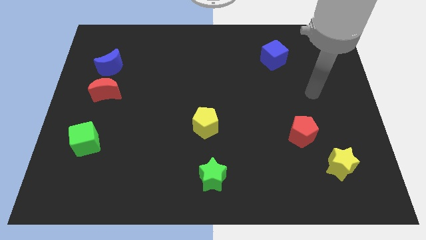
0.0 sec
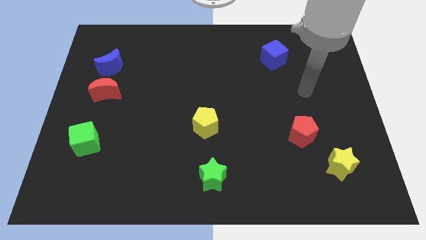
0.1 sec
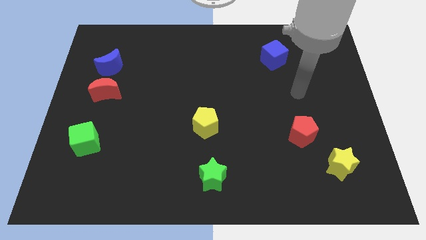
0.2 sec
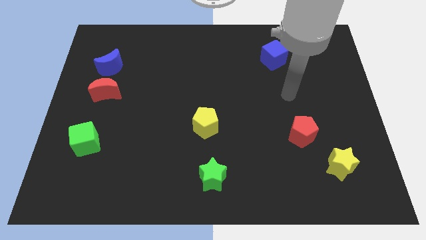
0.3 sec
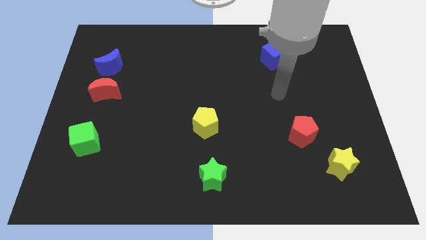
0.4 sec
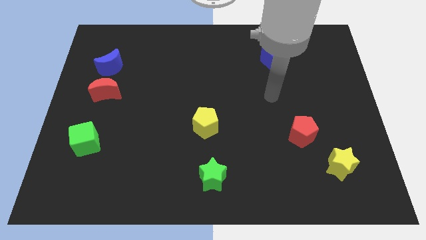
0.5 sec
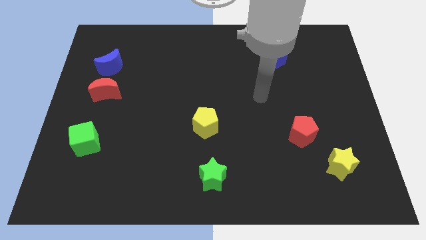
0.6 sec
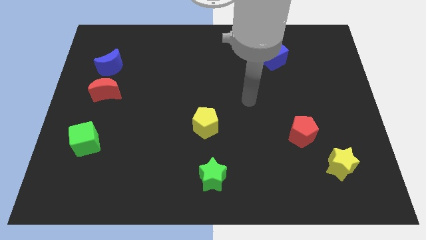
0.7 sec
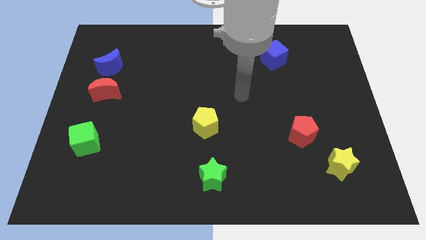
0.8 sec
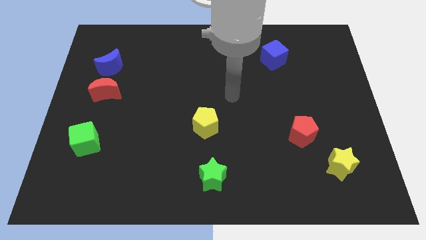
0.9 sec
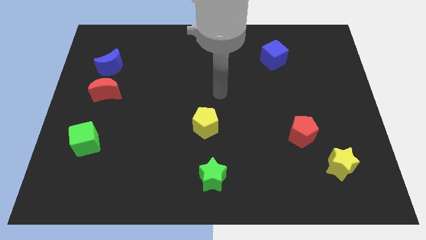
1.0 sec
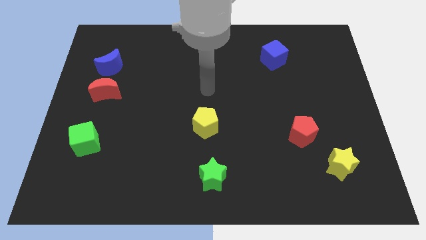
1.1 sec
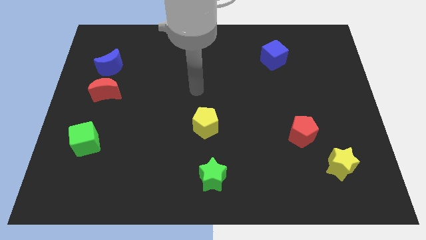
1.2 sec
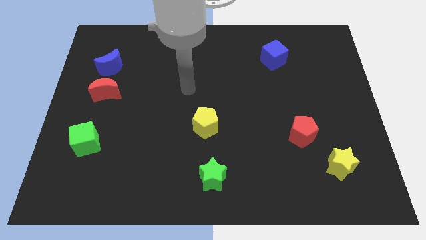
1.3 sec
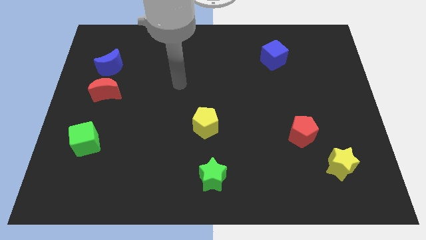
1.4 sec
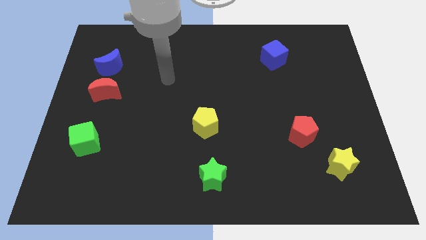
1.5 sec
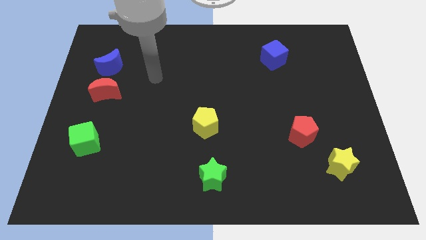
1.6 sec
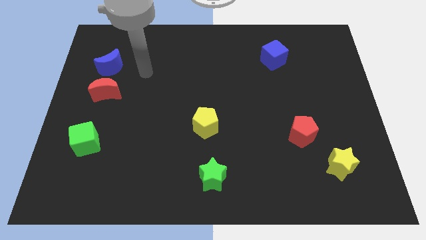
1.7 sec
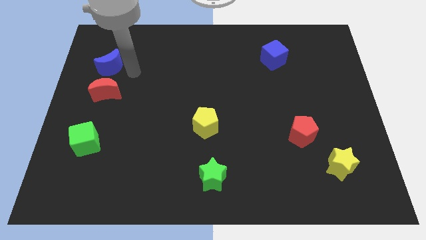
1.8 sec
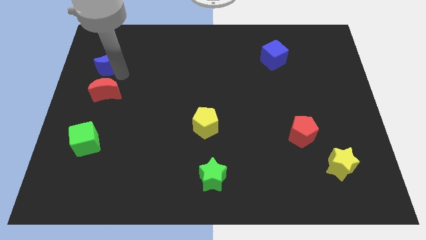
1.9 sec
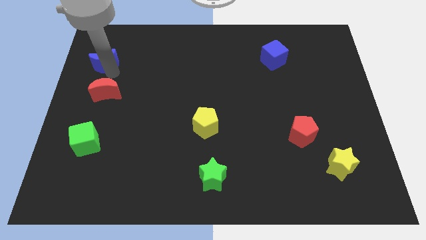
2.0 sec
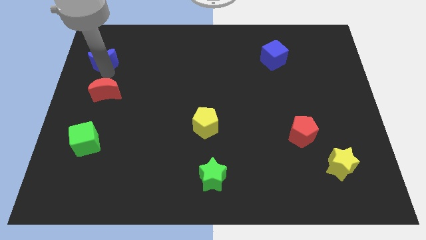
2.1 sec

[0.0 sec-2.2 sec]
move the red moon away from the blue moon

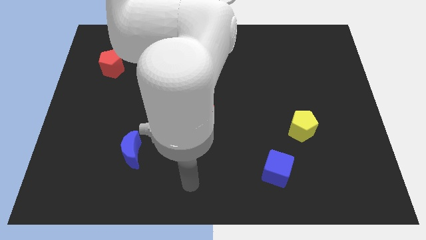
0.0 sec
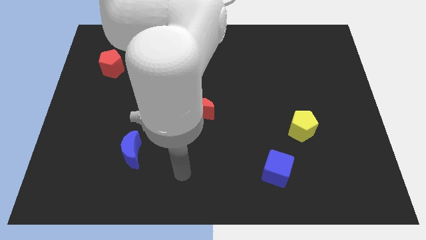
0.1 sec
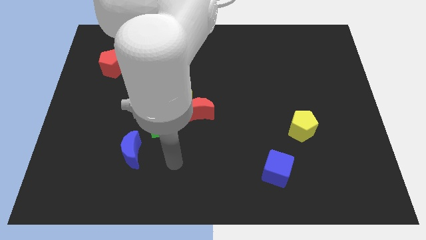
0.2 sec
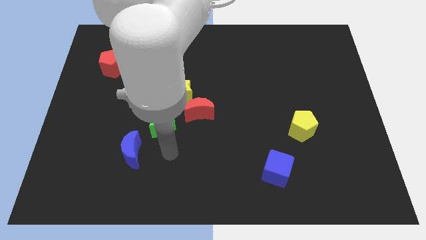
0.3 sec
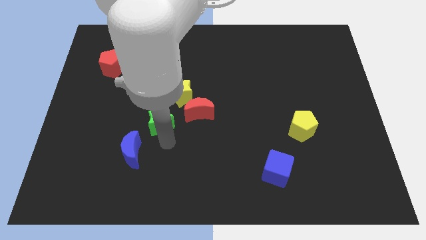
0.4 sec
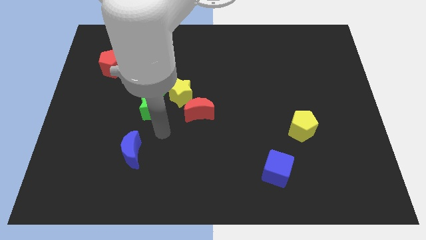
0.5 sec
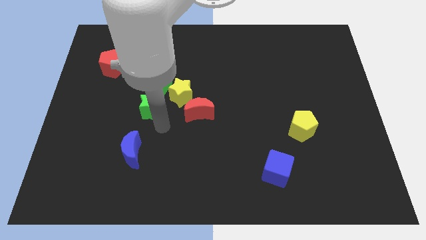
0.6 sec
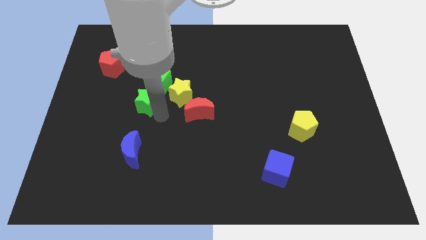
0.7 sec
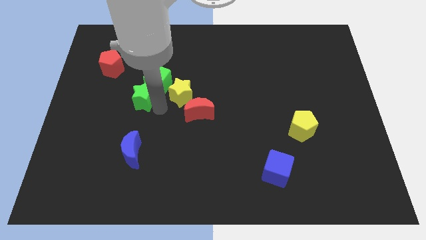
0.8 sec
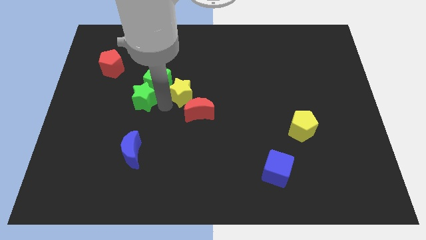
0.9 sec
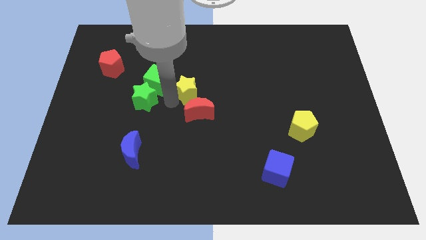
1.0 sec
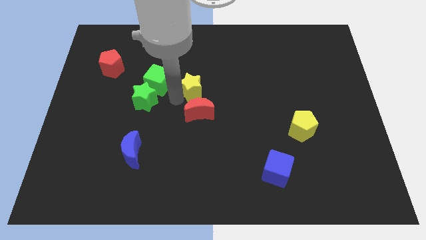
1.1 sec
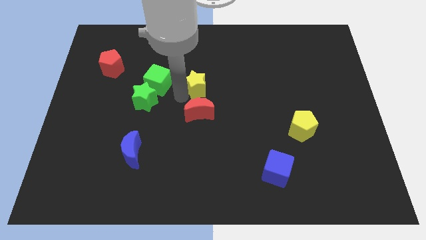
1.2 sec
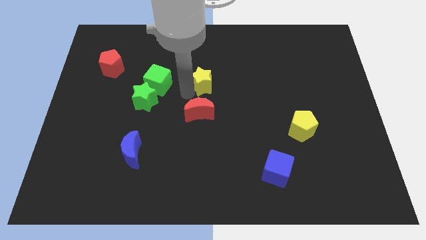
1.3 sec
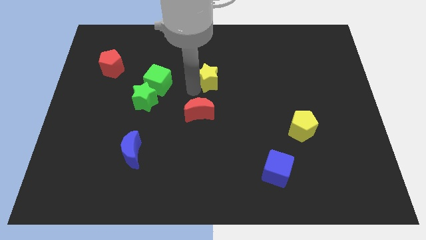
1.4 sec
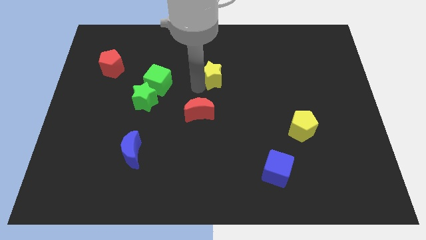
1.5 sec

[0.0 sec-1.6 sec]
pull the yellow star apart from the red moon and green cube

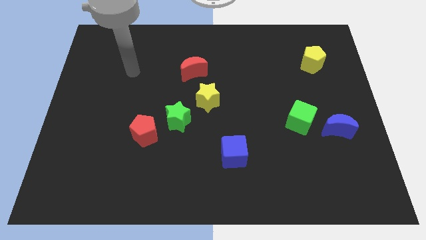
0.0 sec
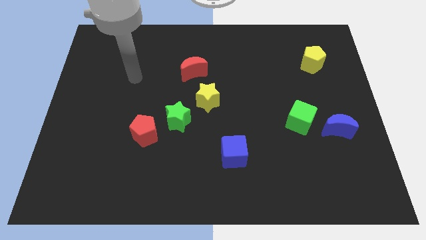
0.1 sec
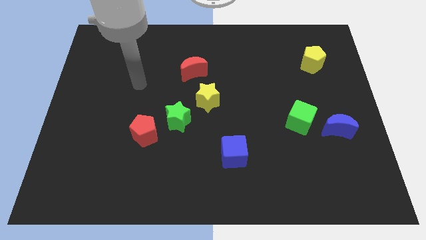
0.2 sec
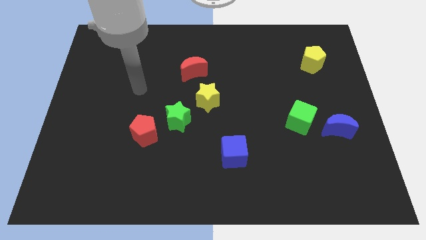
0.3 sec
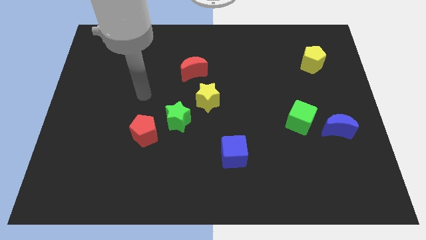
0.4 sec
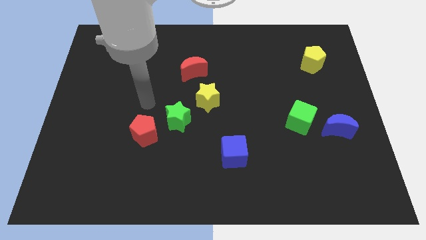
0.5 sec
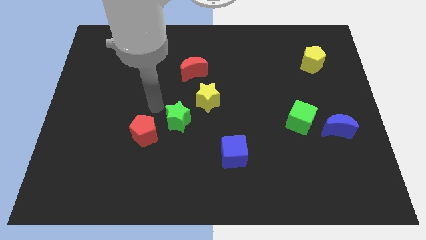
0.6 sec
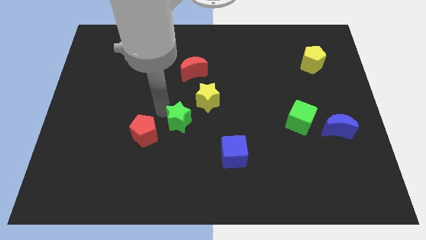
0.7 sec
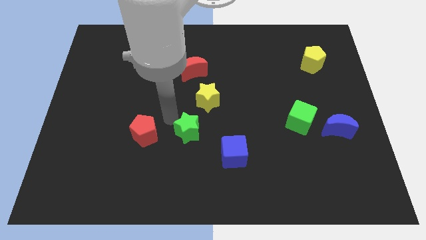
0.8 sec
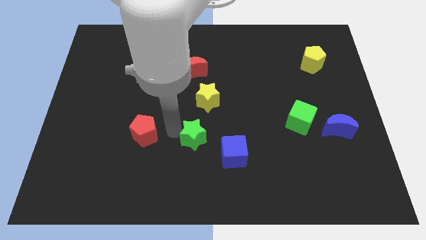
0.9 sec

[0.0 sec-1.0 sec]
pull the red pentagon apart from the green star

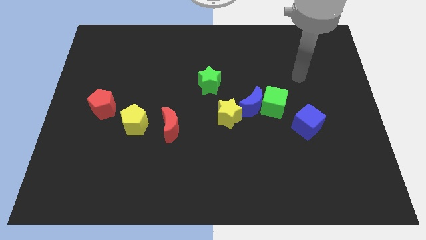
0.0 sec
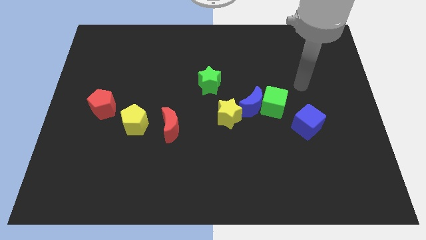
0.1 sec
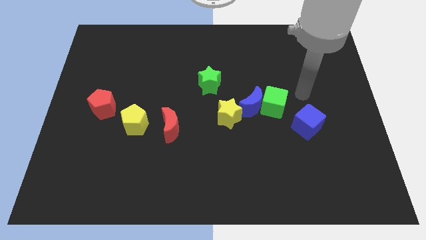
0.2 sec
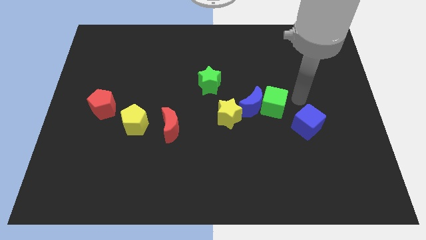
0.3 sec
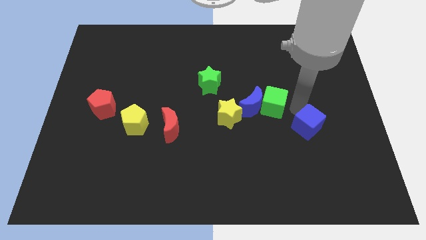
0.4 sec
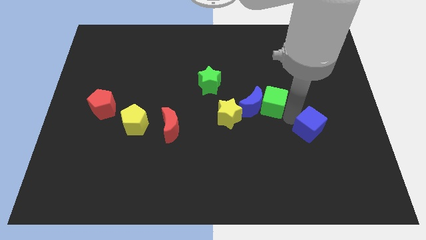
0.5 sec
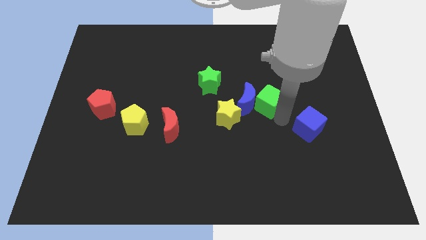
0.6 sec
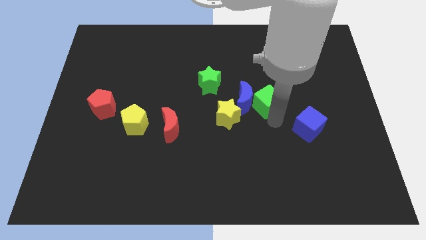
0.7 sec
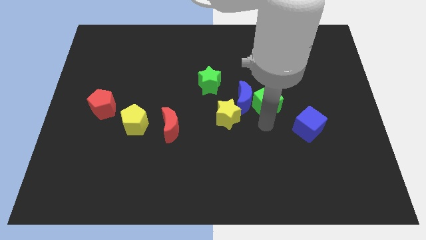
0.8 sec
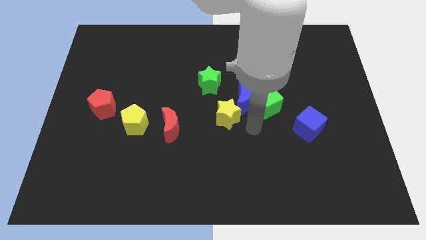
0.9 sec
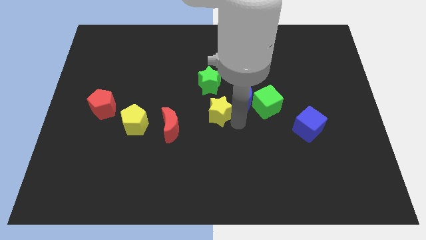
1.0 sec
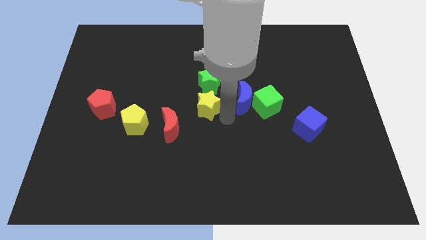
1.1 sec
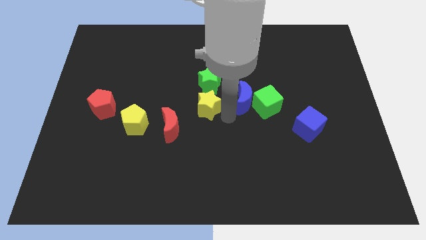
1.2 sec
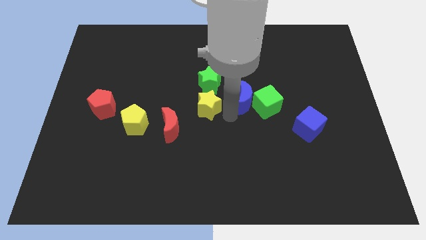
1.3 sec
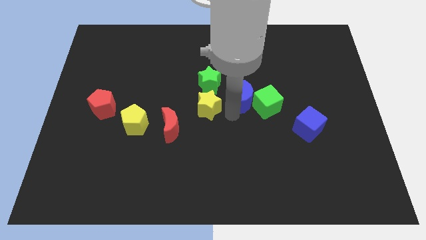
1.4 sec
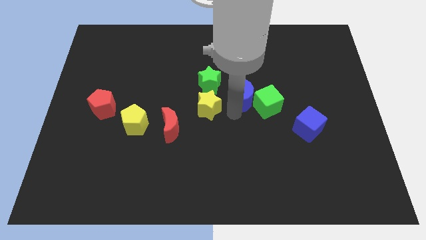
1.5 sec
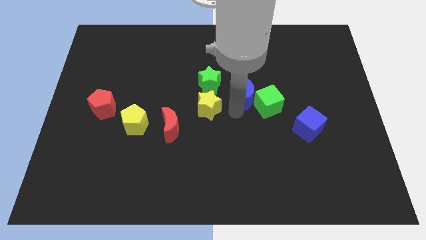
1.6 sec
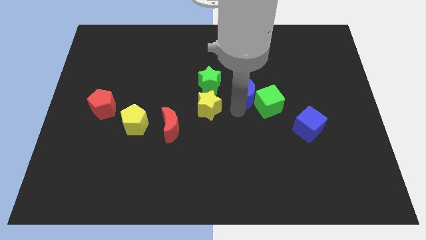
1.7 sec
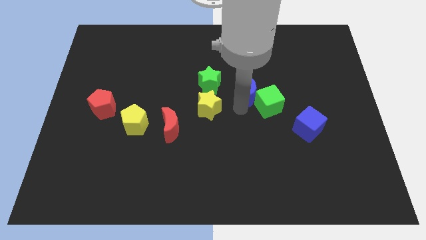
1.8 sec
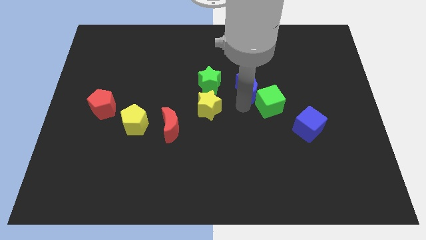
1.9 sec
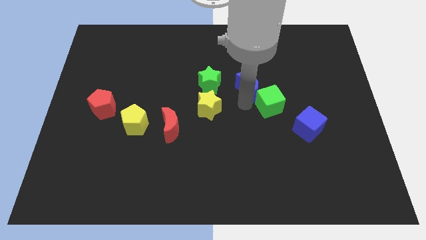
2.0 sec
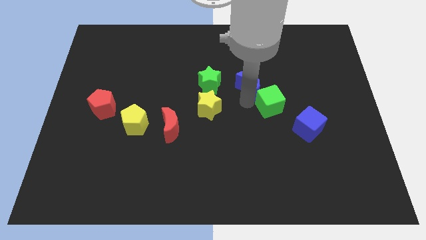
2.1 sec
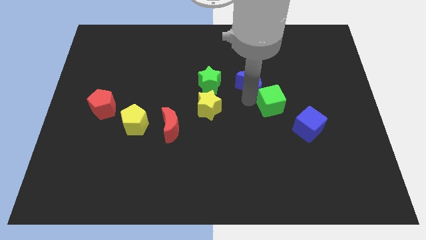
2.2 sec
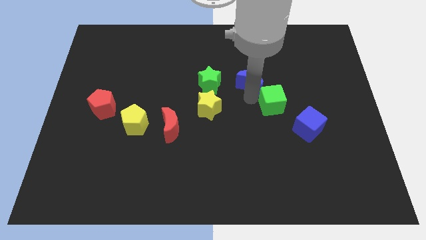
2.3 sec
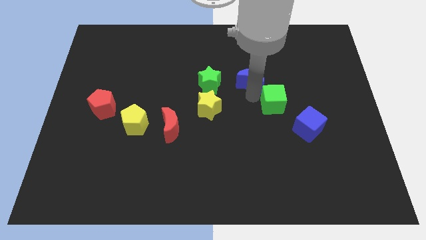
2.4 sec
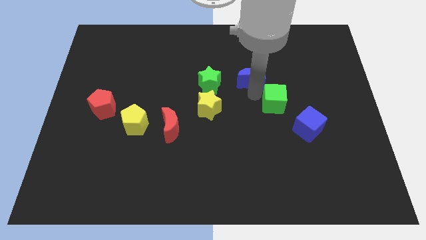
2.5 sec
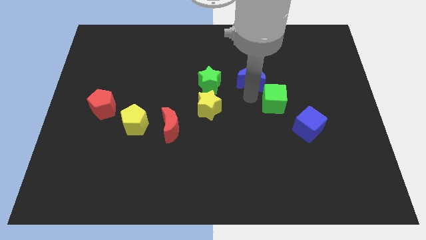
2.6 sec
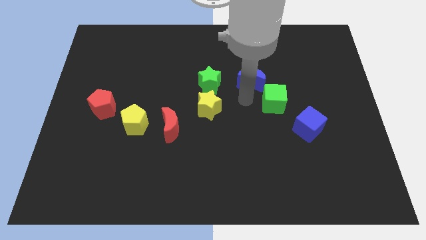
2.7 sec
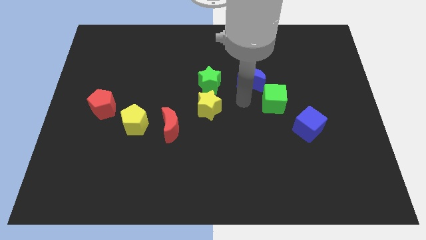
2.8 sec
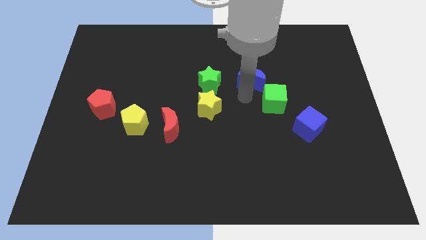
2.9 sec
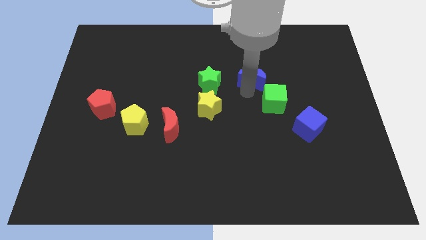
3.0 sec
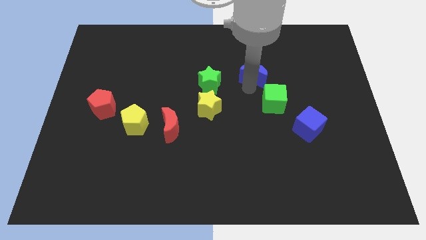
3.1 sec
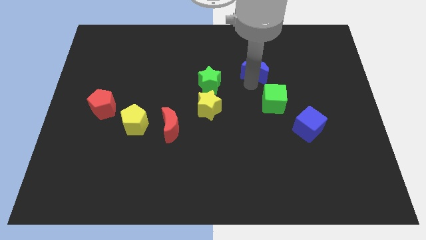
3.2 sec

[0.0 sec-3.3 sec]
pull the blue moon apart from the green cube and yellow star

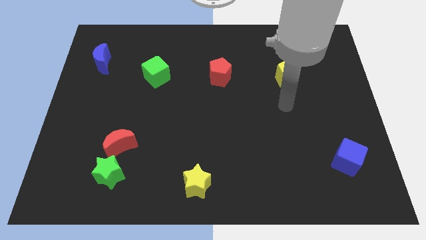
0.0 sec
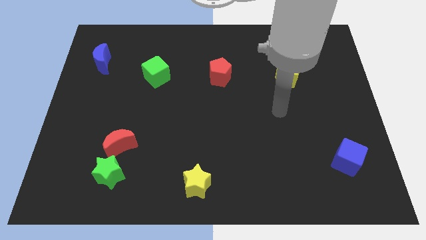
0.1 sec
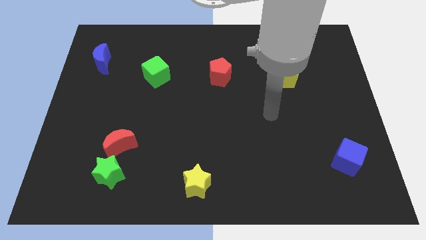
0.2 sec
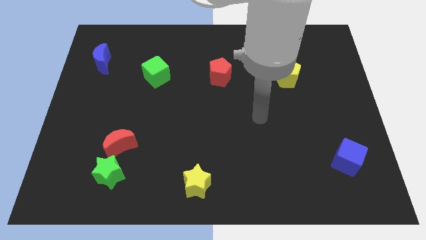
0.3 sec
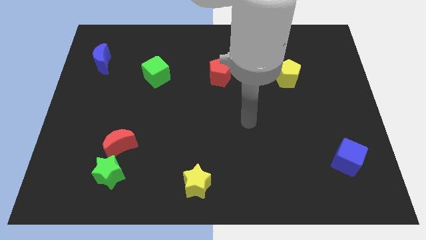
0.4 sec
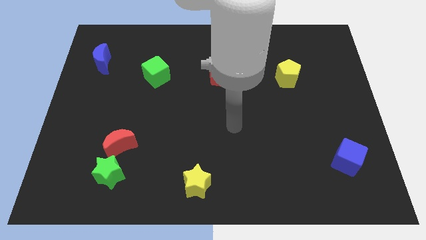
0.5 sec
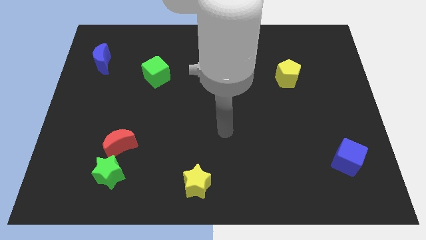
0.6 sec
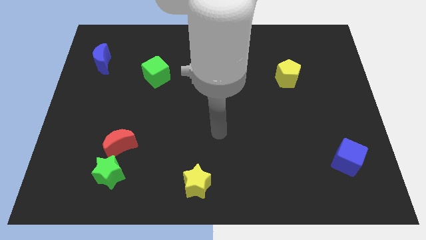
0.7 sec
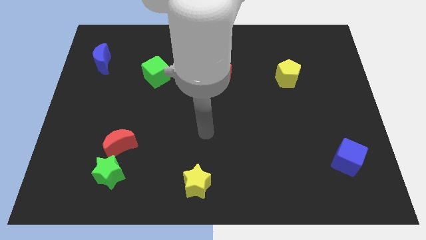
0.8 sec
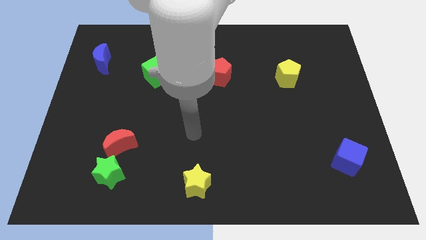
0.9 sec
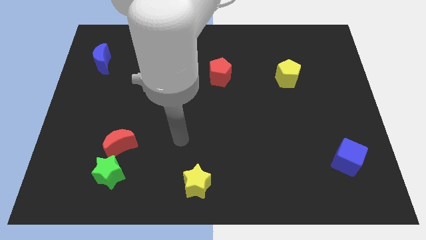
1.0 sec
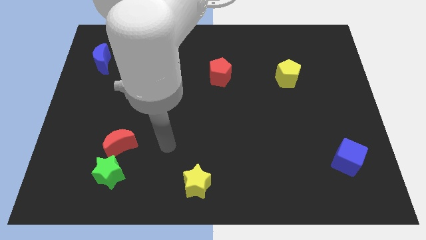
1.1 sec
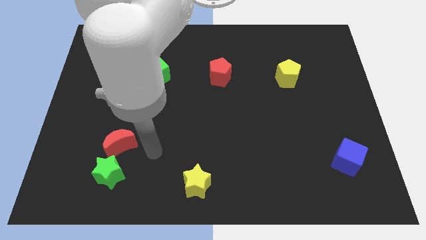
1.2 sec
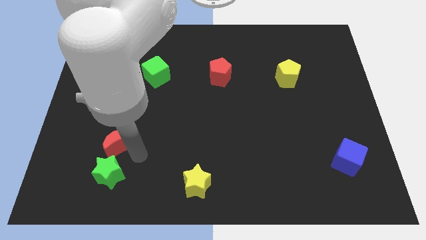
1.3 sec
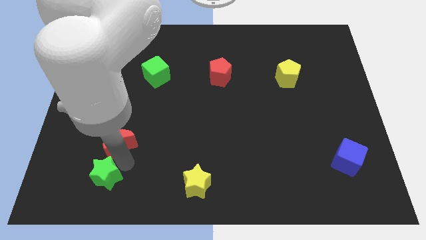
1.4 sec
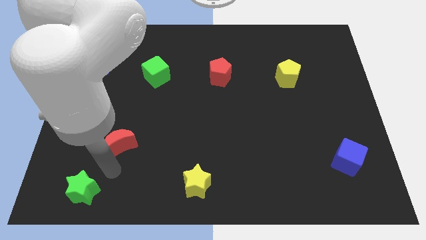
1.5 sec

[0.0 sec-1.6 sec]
move the red moon away from the green star
